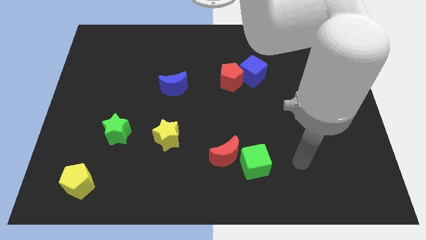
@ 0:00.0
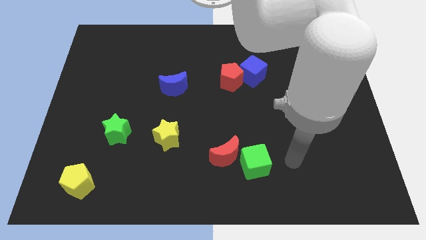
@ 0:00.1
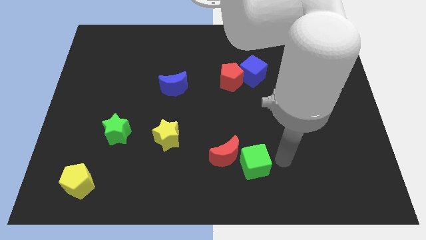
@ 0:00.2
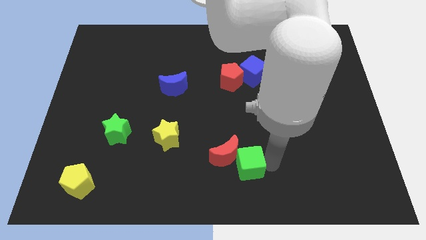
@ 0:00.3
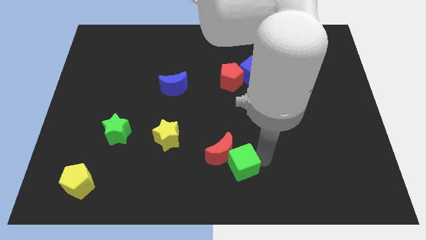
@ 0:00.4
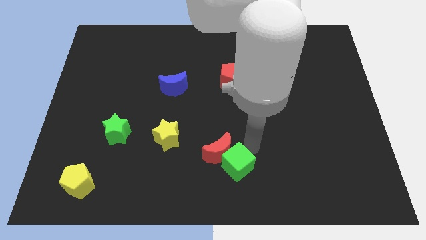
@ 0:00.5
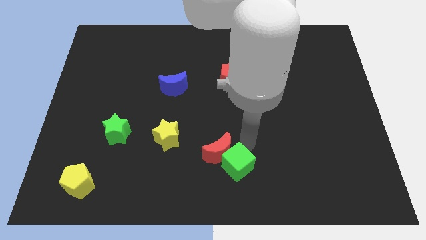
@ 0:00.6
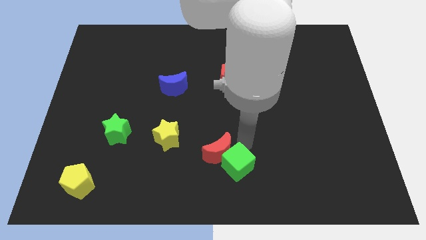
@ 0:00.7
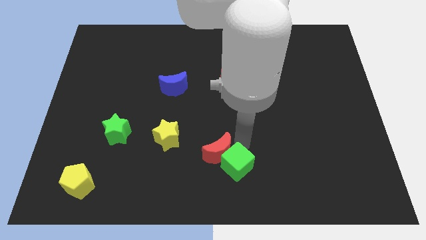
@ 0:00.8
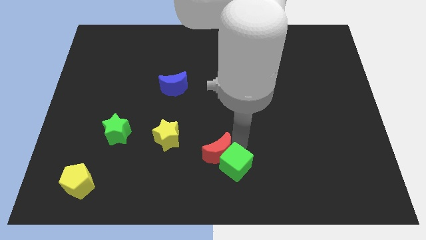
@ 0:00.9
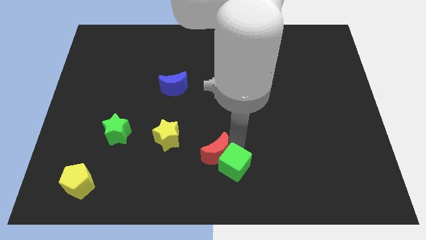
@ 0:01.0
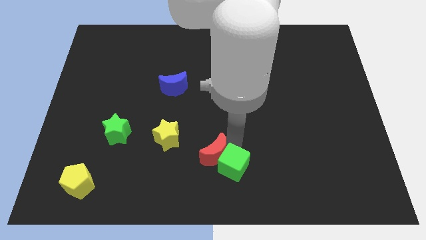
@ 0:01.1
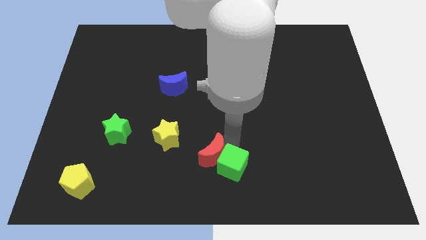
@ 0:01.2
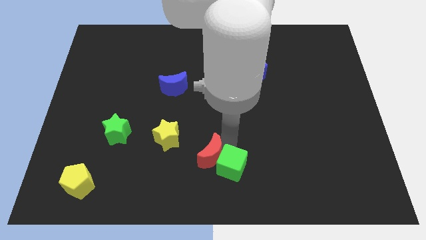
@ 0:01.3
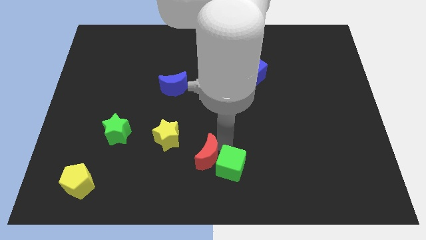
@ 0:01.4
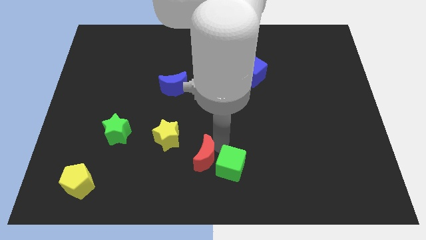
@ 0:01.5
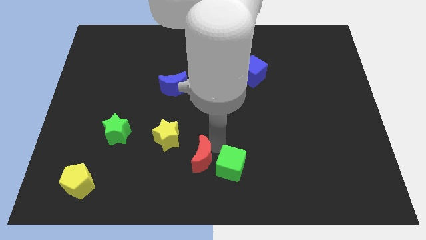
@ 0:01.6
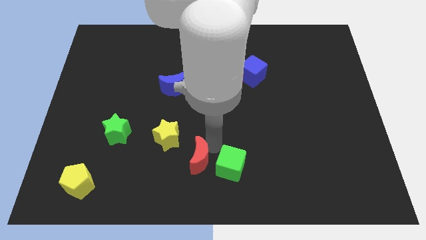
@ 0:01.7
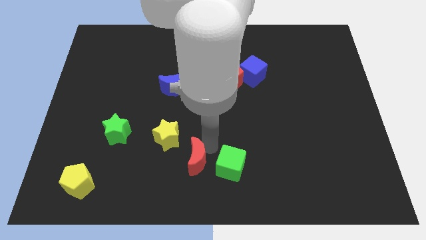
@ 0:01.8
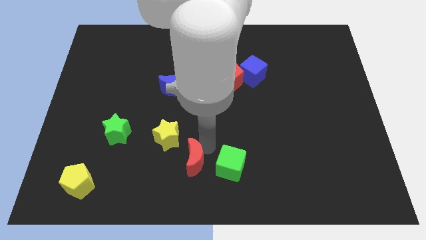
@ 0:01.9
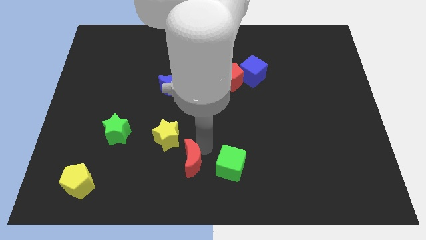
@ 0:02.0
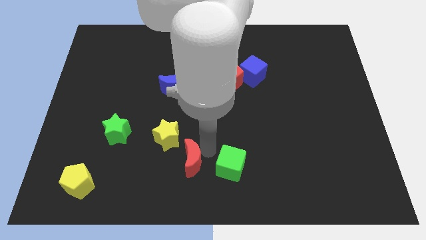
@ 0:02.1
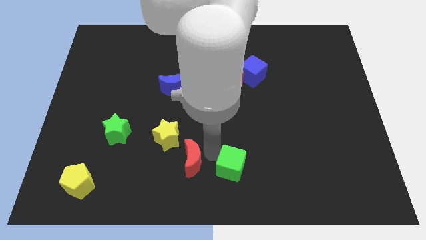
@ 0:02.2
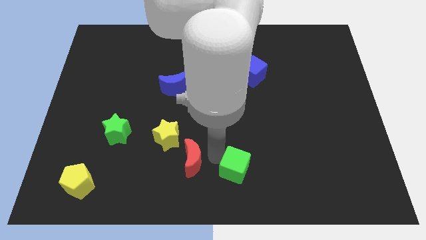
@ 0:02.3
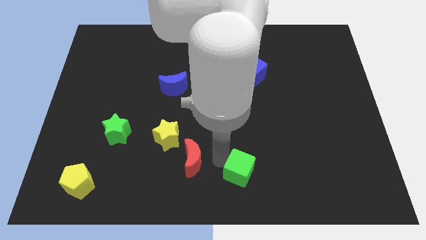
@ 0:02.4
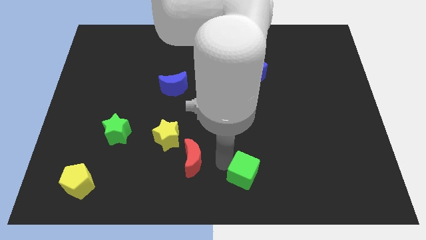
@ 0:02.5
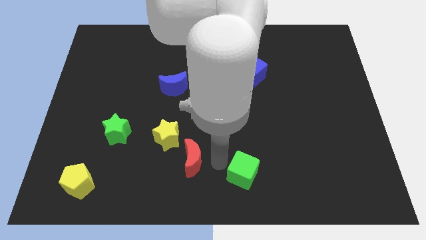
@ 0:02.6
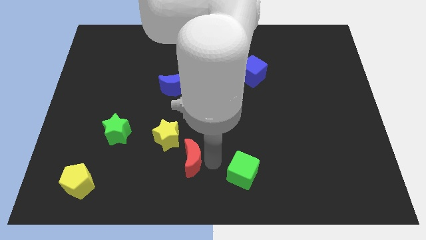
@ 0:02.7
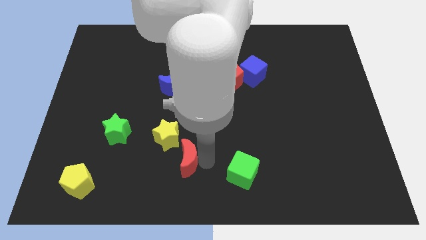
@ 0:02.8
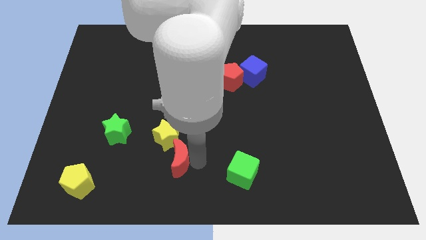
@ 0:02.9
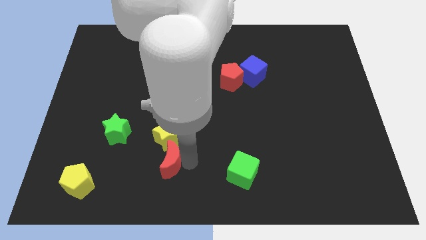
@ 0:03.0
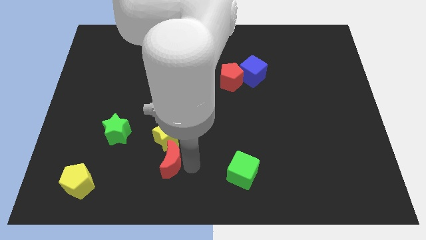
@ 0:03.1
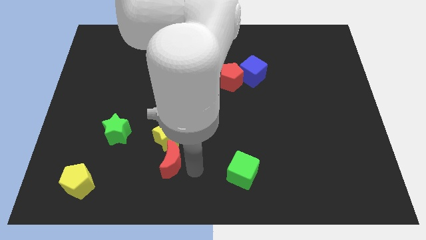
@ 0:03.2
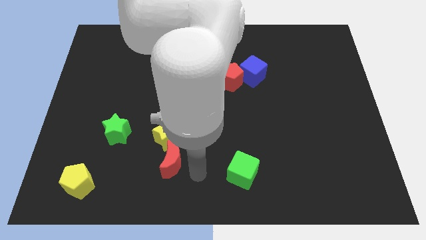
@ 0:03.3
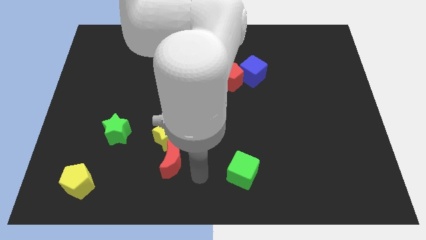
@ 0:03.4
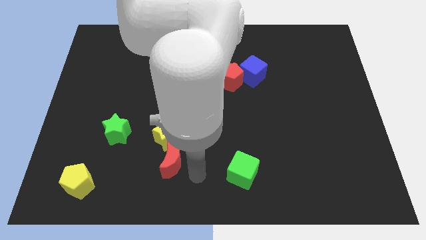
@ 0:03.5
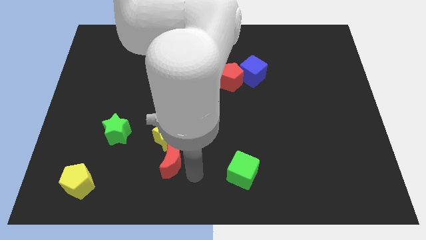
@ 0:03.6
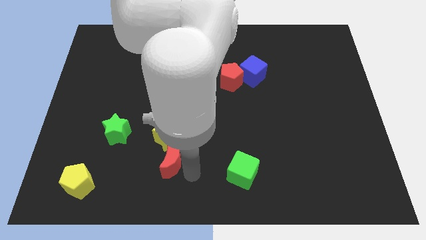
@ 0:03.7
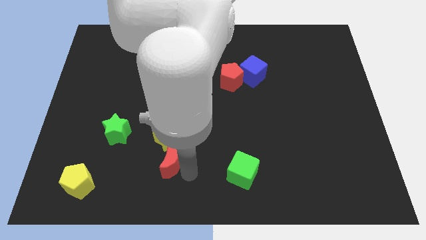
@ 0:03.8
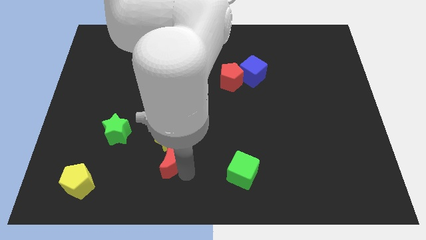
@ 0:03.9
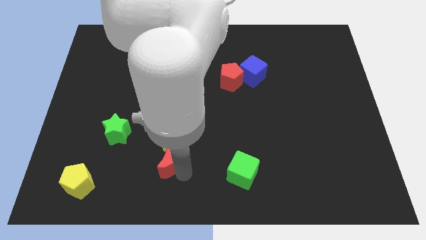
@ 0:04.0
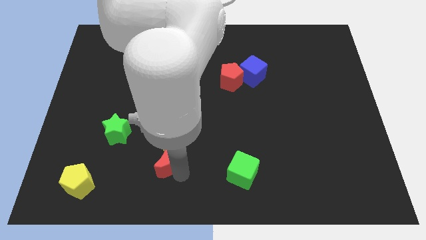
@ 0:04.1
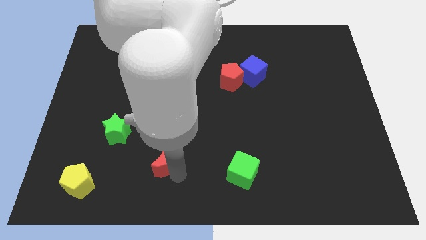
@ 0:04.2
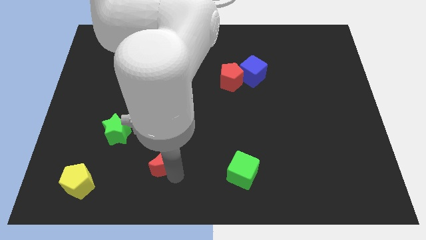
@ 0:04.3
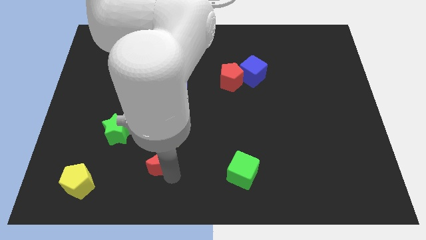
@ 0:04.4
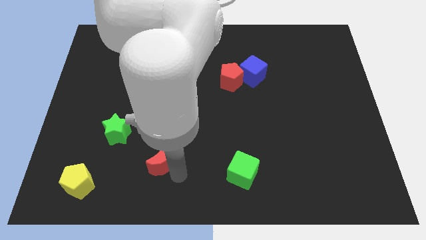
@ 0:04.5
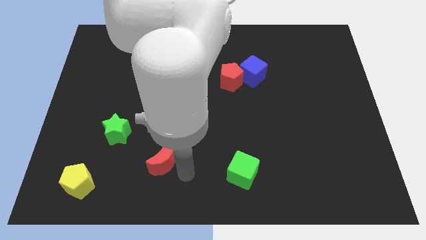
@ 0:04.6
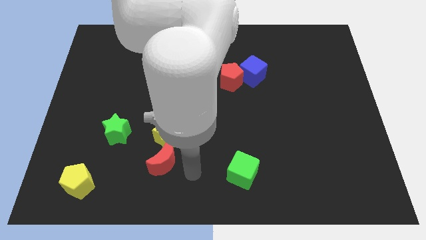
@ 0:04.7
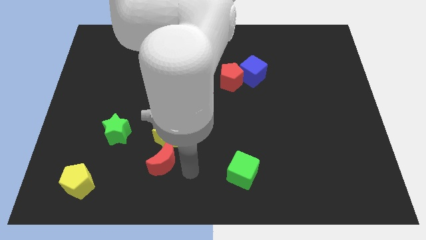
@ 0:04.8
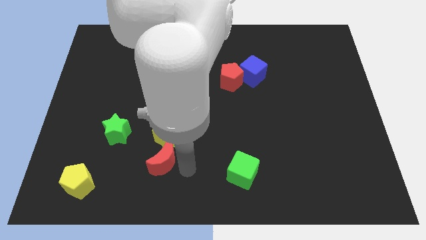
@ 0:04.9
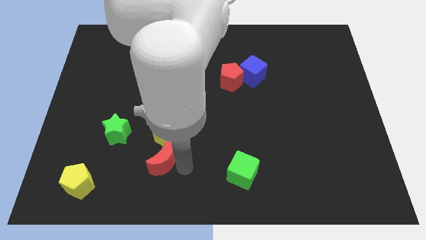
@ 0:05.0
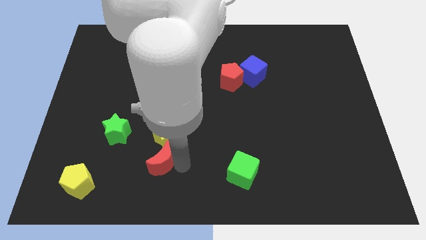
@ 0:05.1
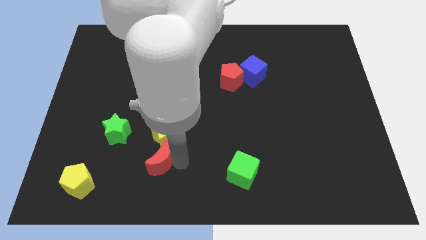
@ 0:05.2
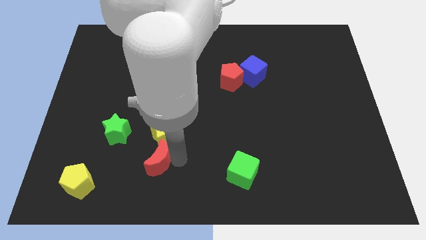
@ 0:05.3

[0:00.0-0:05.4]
move the red moon diagonally down and to the right of the green star

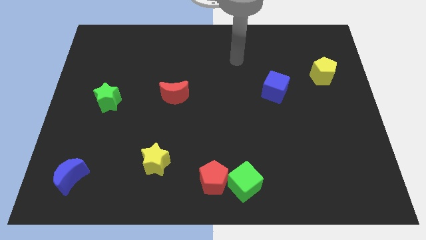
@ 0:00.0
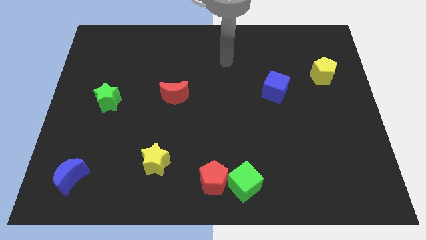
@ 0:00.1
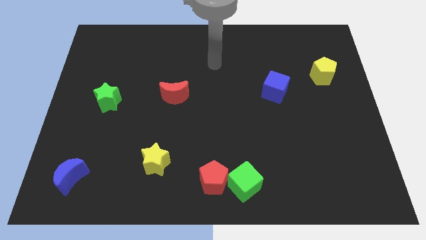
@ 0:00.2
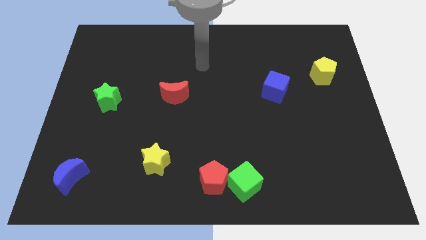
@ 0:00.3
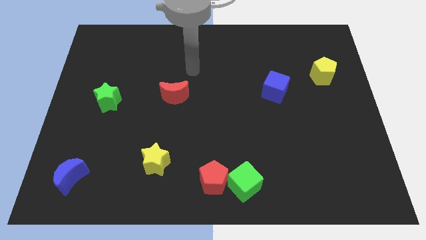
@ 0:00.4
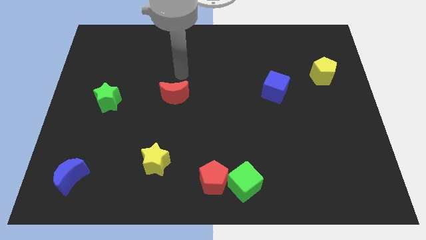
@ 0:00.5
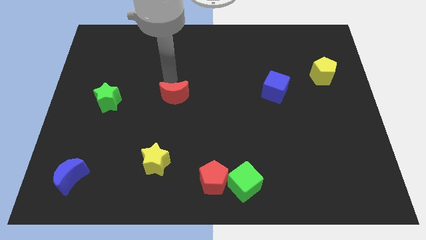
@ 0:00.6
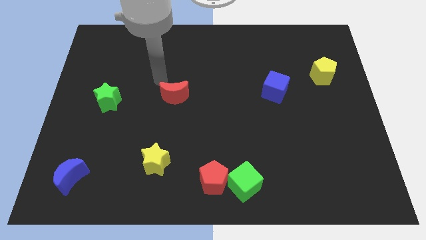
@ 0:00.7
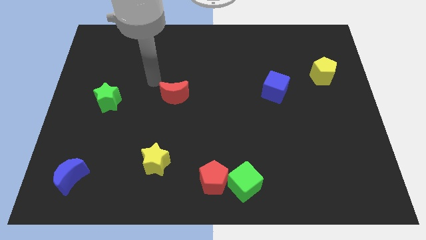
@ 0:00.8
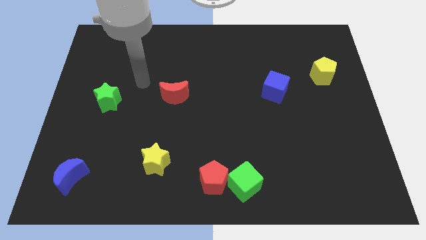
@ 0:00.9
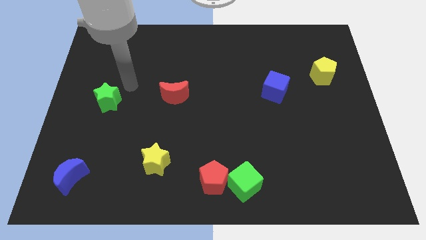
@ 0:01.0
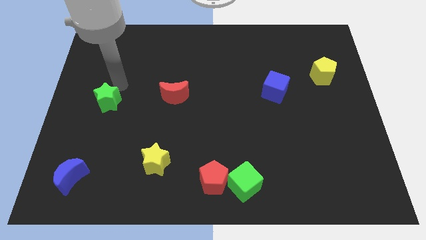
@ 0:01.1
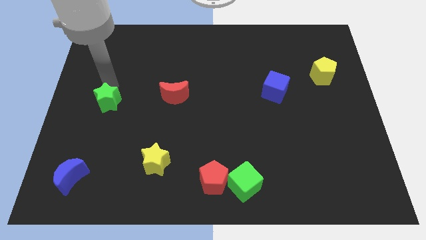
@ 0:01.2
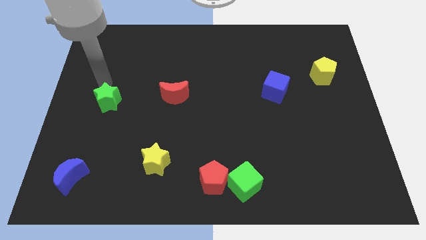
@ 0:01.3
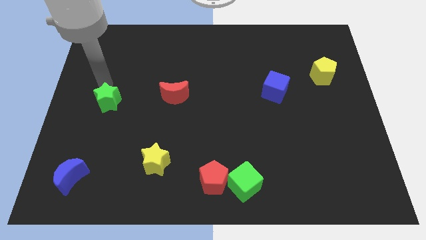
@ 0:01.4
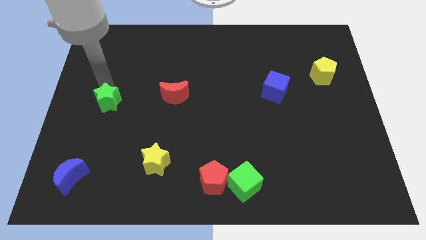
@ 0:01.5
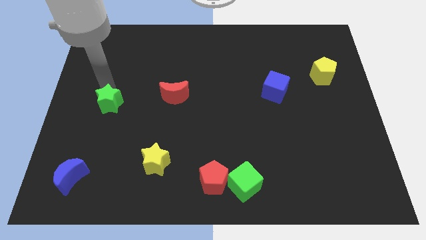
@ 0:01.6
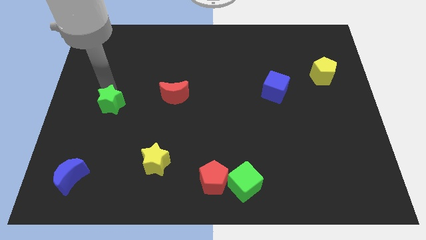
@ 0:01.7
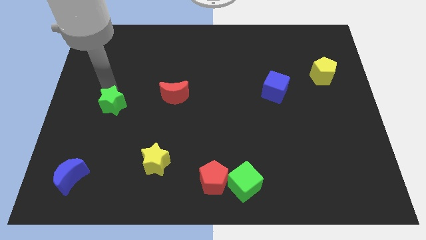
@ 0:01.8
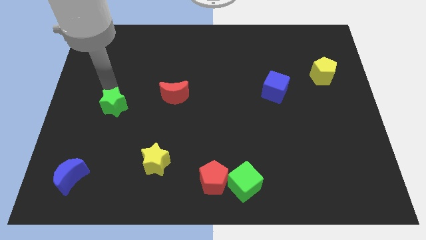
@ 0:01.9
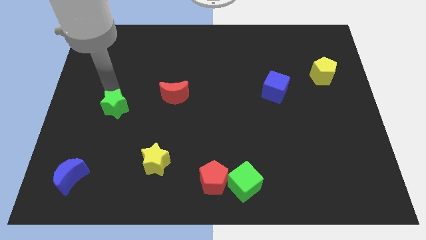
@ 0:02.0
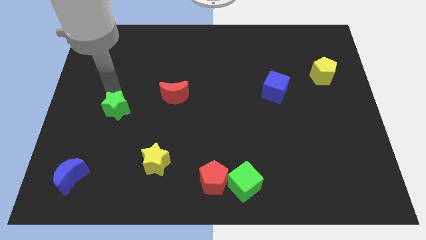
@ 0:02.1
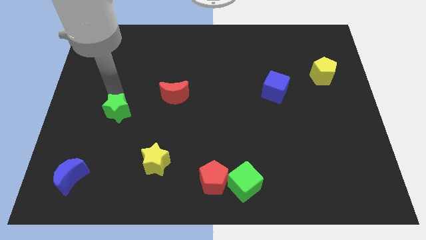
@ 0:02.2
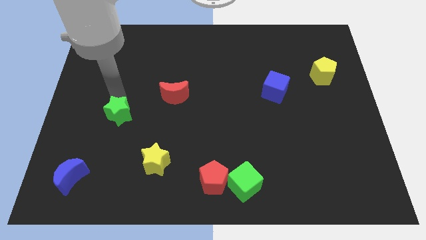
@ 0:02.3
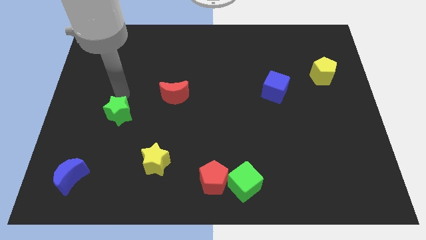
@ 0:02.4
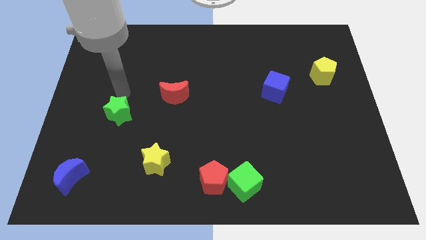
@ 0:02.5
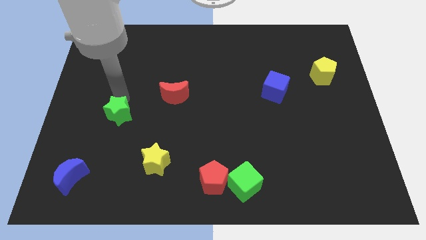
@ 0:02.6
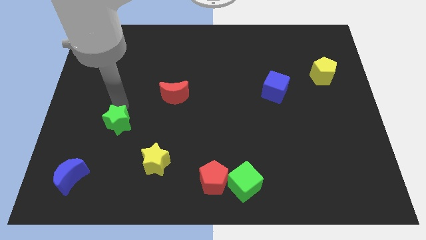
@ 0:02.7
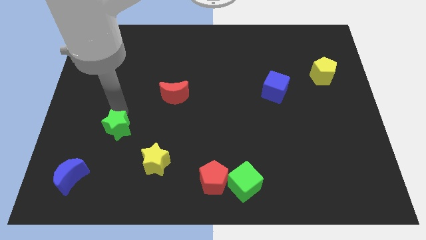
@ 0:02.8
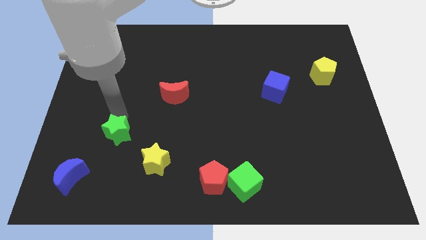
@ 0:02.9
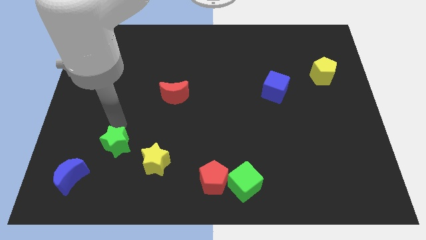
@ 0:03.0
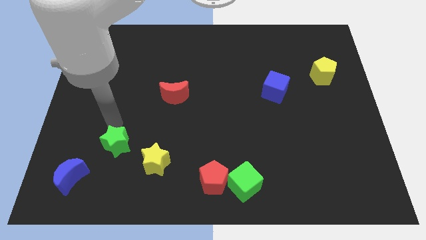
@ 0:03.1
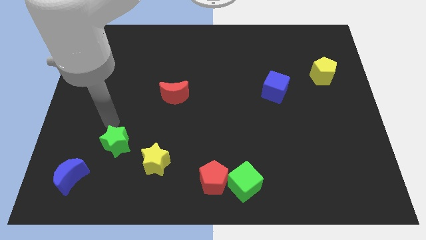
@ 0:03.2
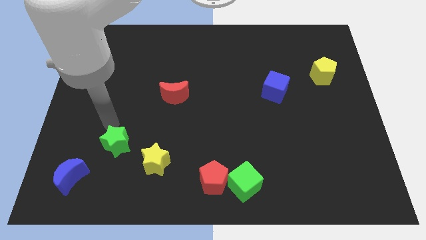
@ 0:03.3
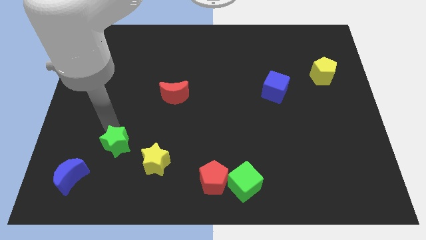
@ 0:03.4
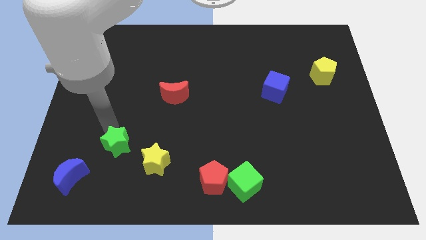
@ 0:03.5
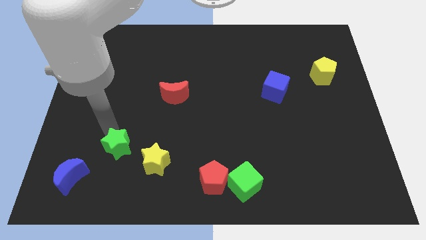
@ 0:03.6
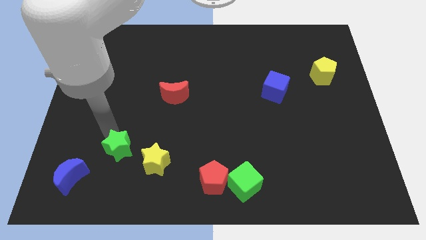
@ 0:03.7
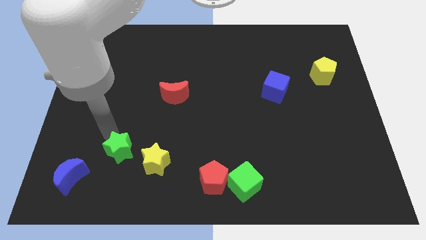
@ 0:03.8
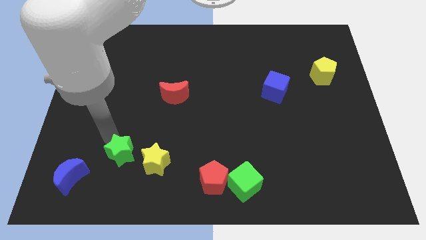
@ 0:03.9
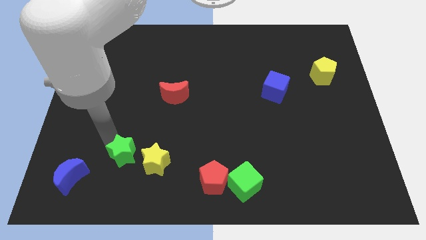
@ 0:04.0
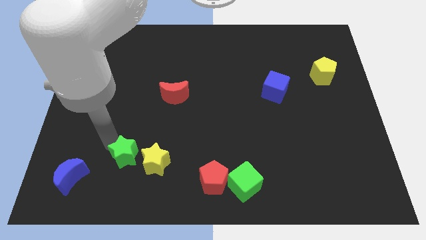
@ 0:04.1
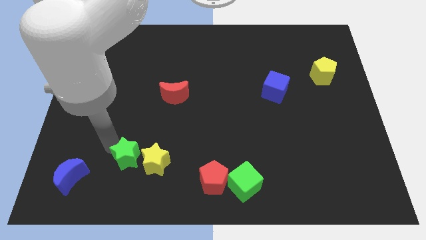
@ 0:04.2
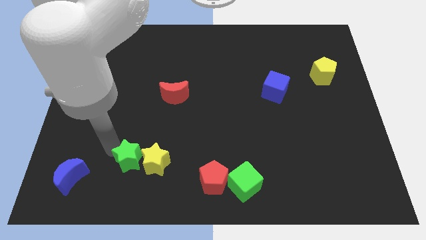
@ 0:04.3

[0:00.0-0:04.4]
slide the green star to the bottom left of the yellow star
